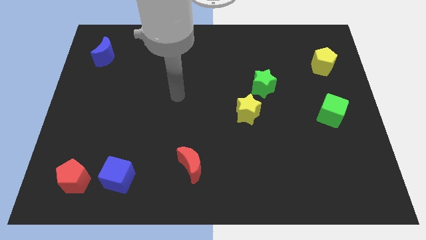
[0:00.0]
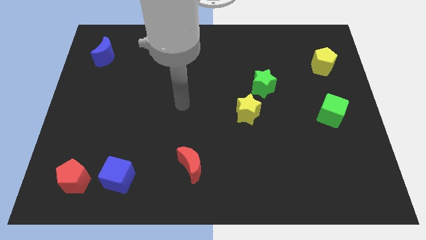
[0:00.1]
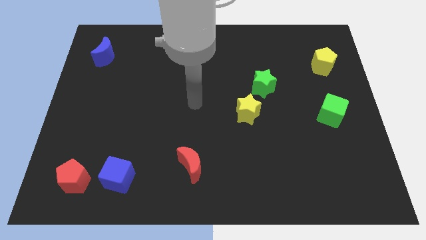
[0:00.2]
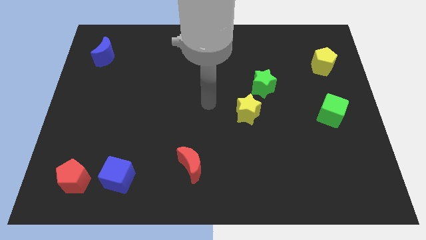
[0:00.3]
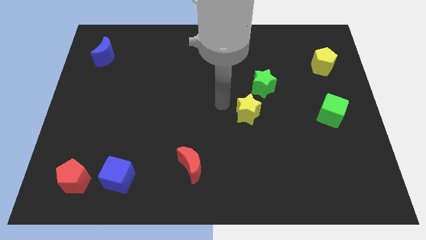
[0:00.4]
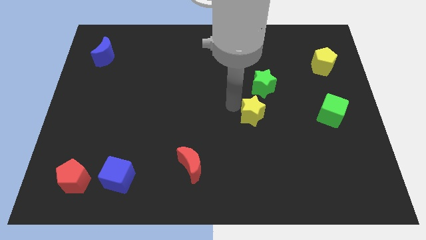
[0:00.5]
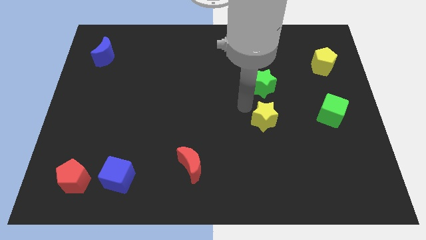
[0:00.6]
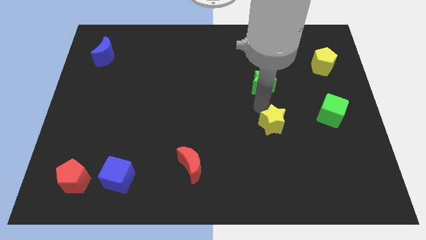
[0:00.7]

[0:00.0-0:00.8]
separate the green star from the yellow star

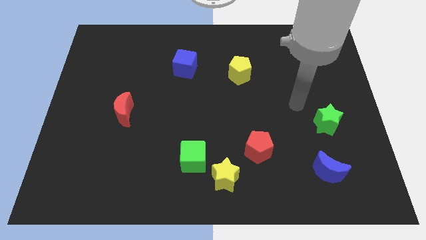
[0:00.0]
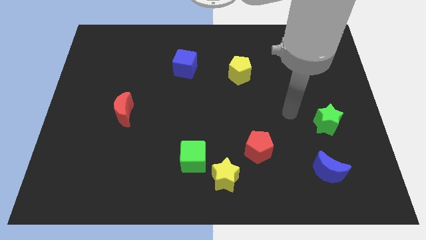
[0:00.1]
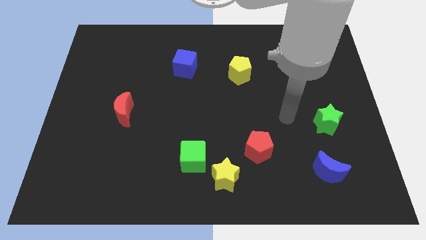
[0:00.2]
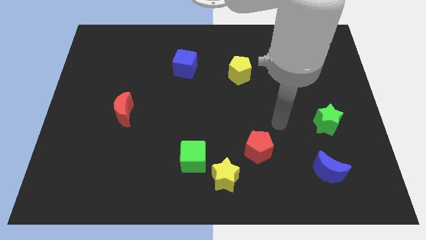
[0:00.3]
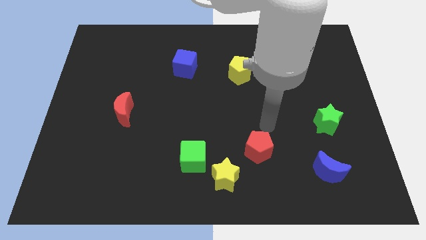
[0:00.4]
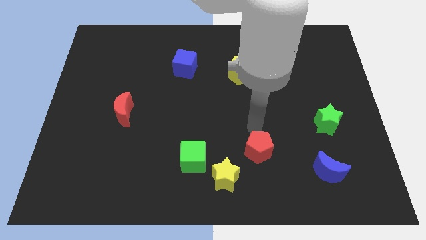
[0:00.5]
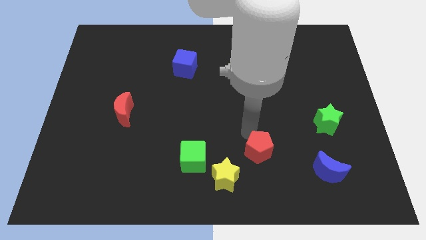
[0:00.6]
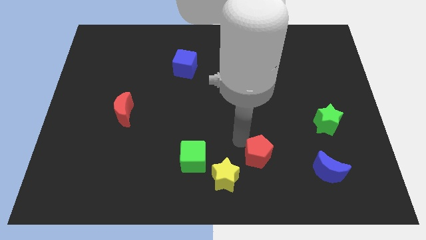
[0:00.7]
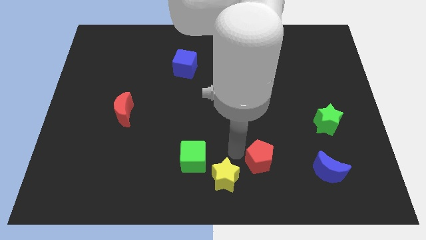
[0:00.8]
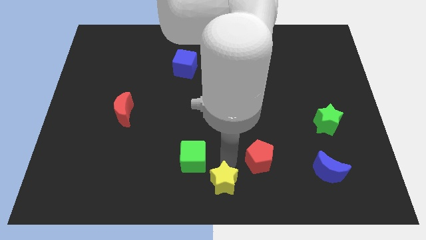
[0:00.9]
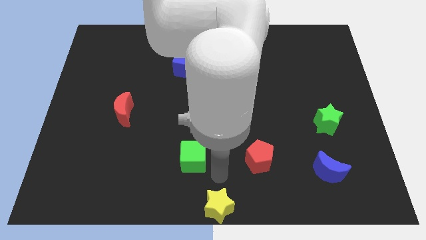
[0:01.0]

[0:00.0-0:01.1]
separate the green cube from the yellow star

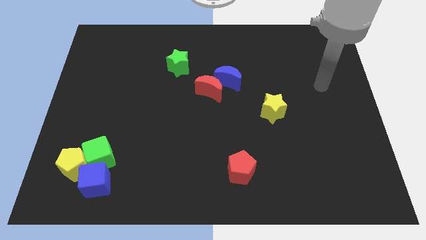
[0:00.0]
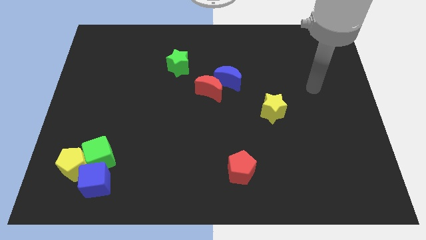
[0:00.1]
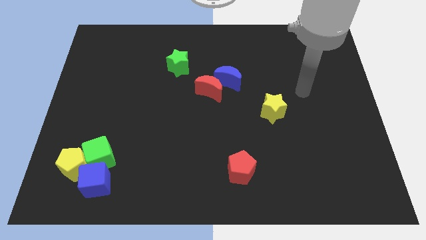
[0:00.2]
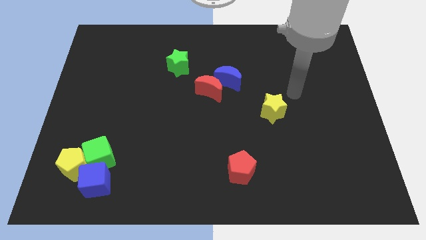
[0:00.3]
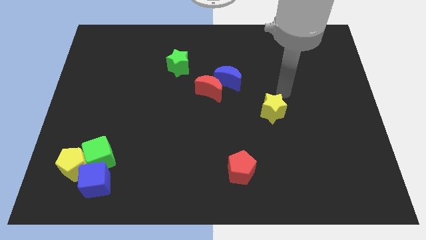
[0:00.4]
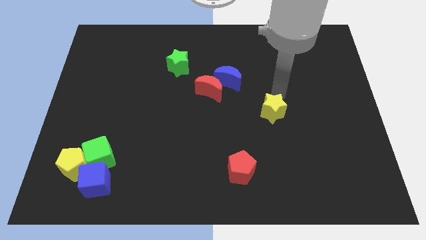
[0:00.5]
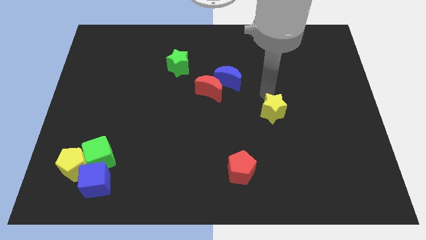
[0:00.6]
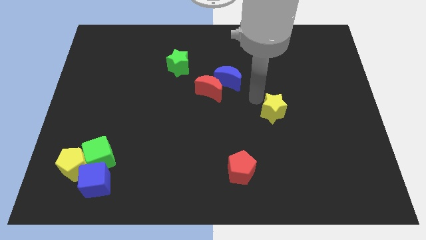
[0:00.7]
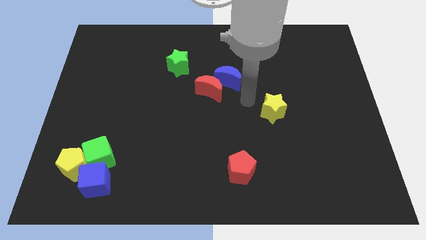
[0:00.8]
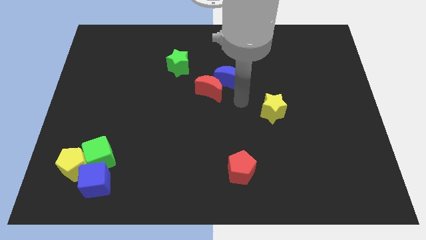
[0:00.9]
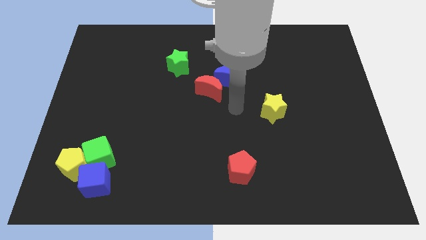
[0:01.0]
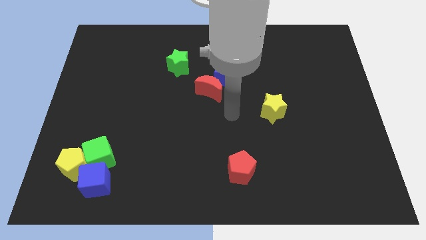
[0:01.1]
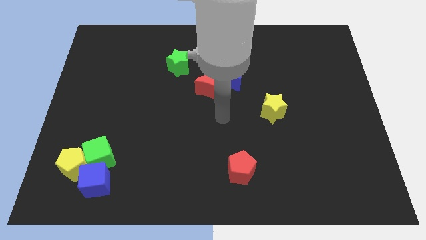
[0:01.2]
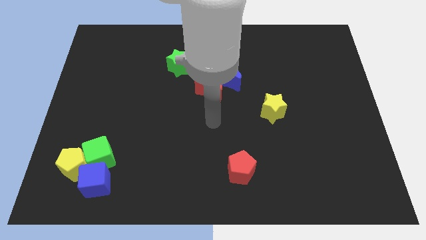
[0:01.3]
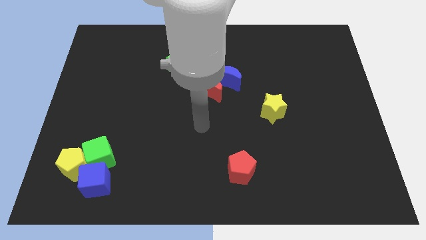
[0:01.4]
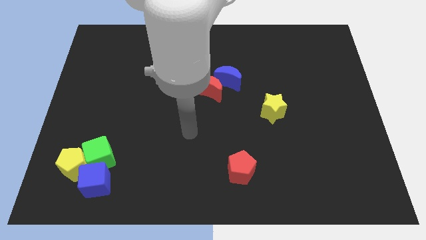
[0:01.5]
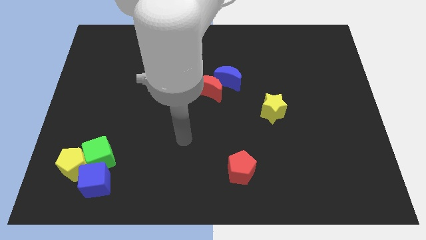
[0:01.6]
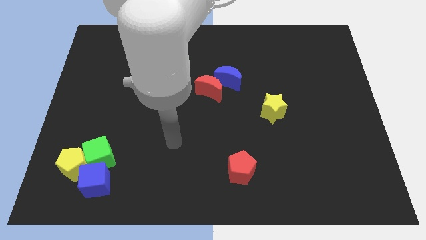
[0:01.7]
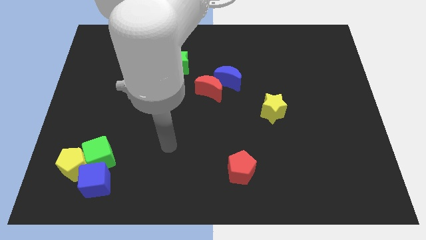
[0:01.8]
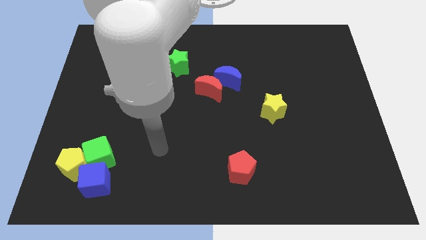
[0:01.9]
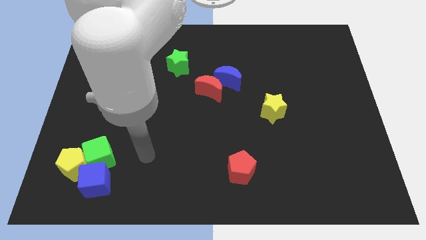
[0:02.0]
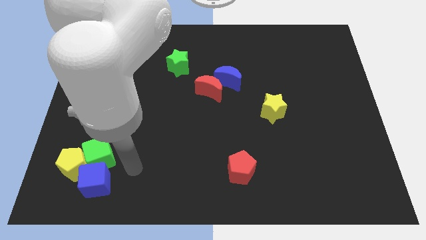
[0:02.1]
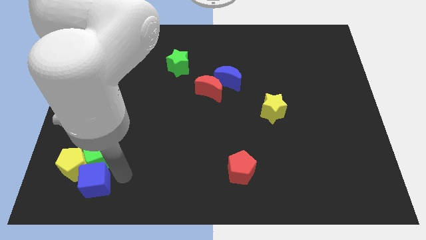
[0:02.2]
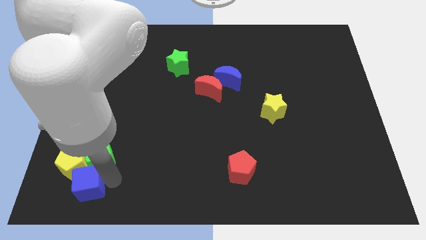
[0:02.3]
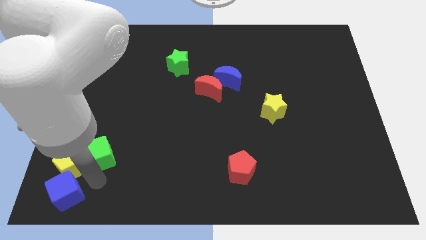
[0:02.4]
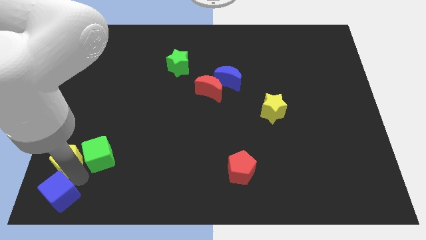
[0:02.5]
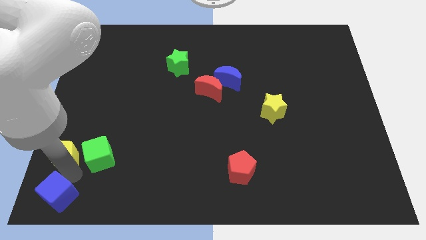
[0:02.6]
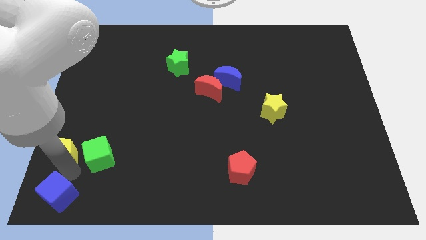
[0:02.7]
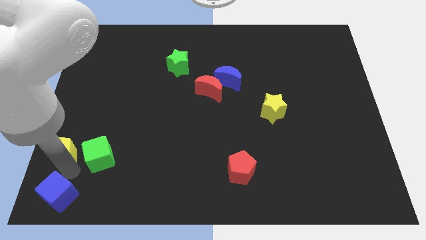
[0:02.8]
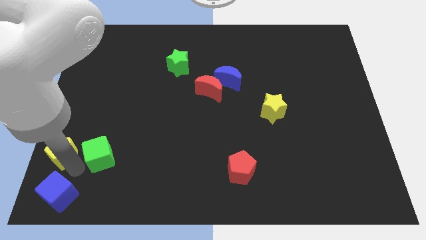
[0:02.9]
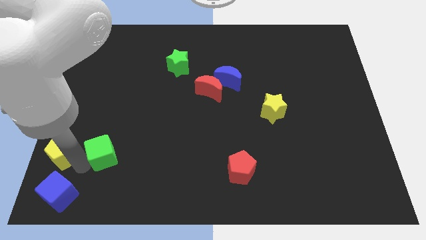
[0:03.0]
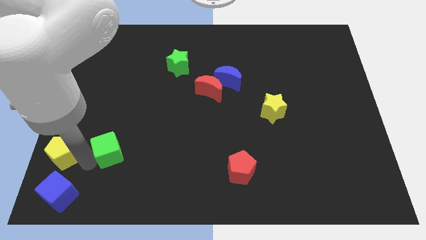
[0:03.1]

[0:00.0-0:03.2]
pull the green cube apart from the yellow pentagon and blue cube

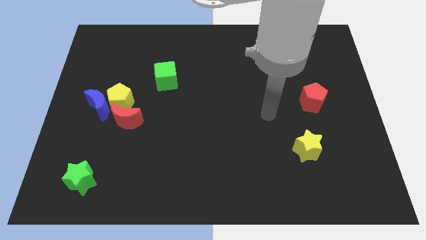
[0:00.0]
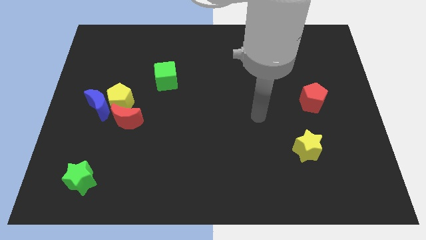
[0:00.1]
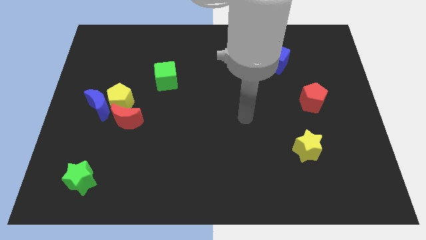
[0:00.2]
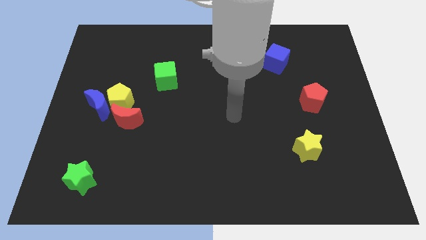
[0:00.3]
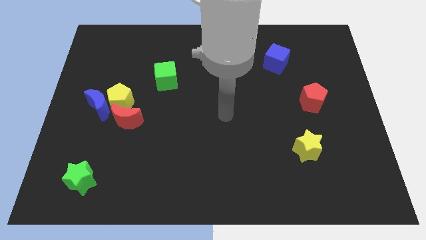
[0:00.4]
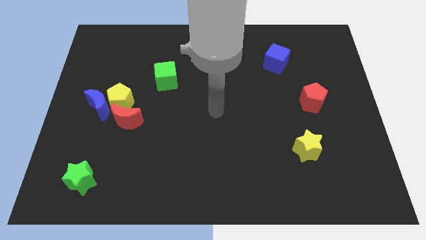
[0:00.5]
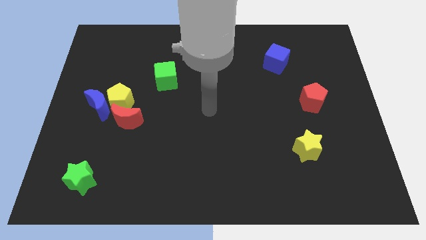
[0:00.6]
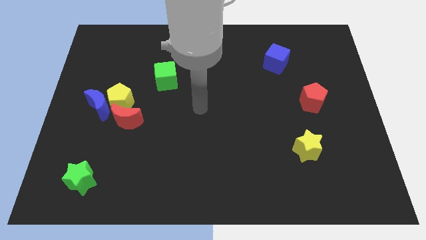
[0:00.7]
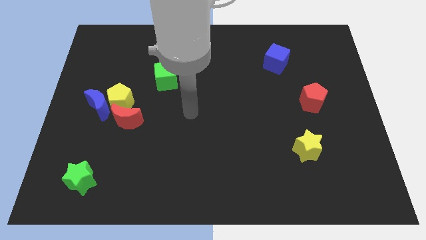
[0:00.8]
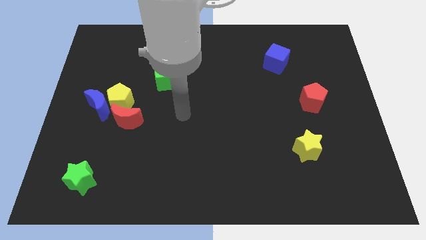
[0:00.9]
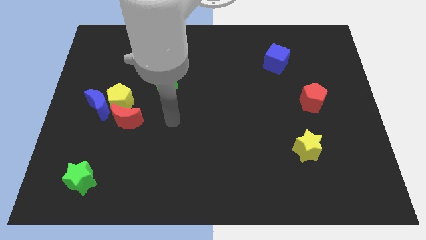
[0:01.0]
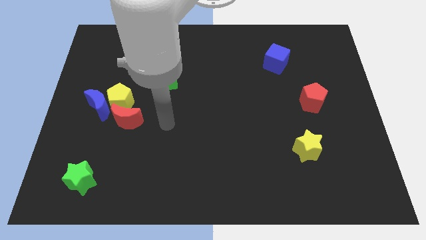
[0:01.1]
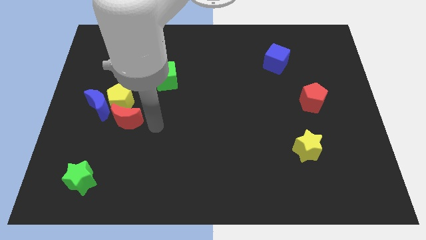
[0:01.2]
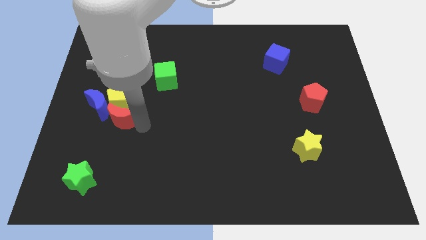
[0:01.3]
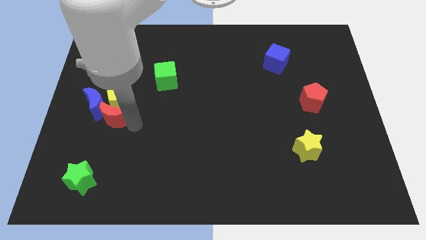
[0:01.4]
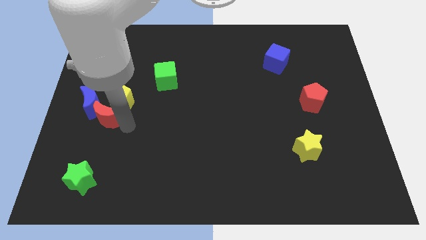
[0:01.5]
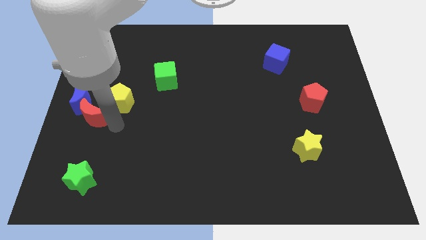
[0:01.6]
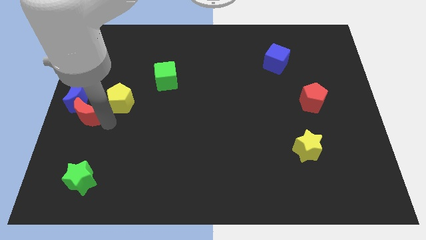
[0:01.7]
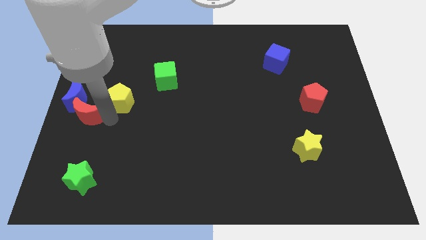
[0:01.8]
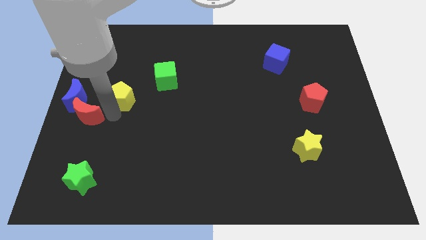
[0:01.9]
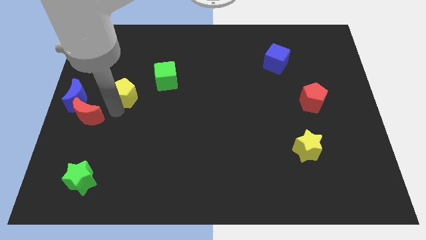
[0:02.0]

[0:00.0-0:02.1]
move the yellow pentagon away from the blue moon and red moon

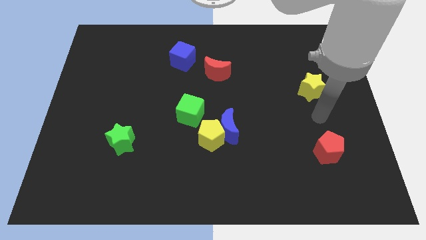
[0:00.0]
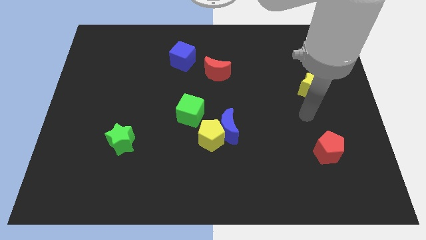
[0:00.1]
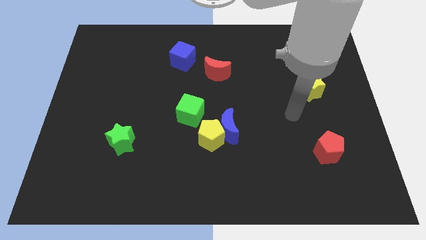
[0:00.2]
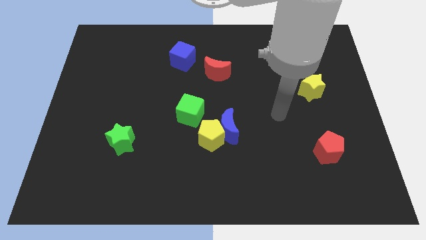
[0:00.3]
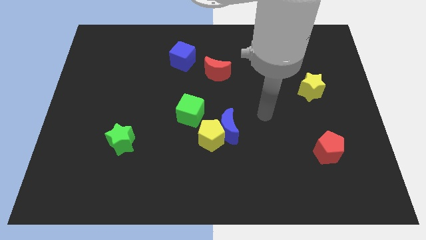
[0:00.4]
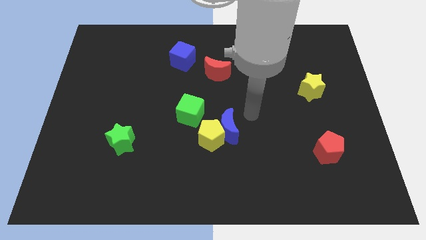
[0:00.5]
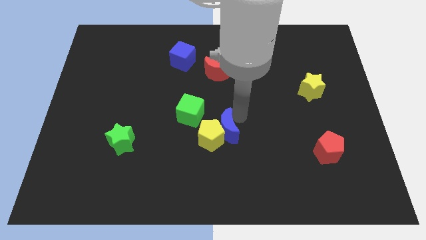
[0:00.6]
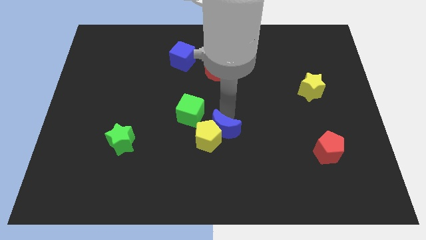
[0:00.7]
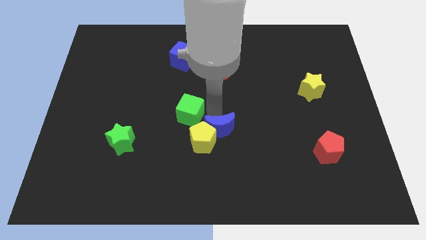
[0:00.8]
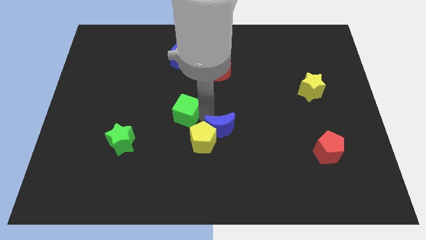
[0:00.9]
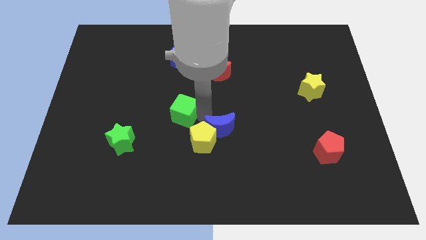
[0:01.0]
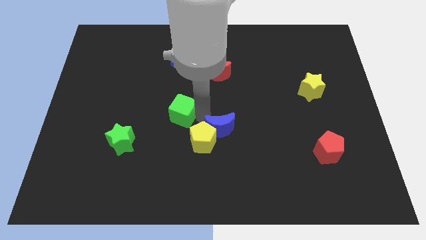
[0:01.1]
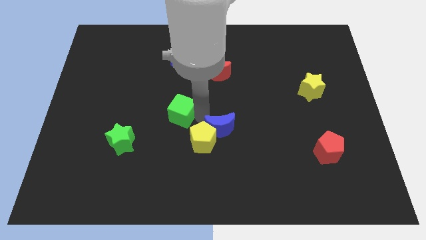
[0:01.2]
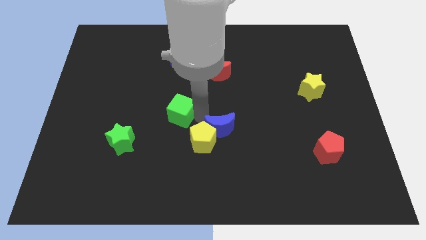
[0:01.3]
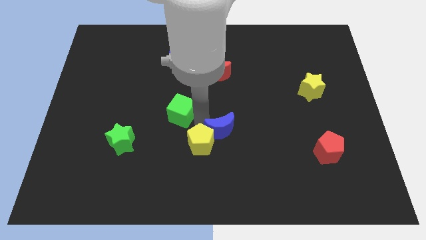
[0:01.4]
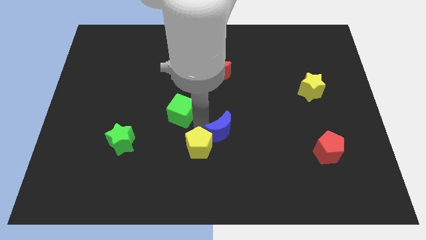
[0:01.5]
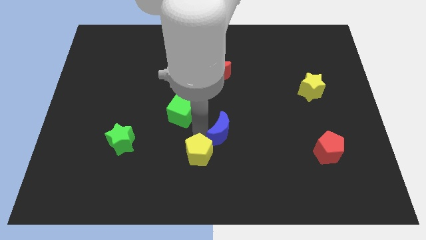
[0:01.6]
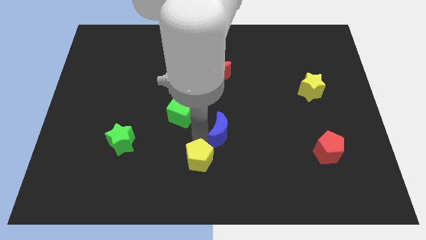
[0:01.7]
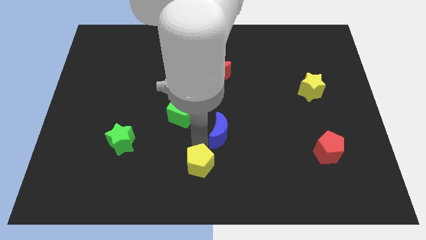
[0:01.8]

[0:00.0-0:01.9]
move the yellow pentagon away from the blue moon and green cube
